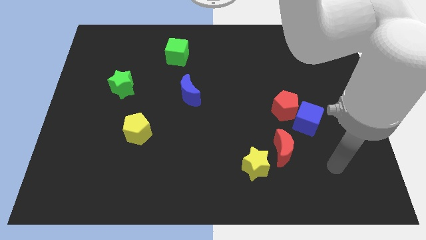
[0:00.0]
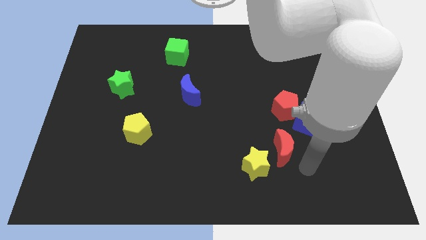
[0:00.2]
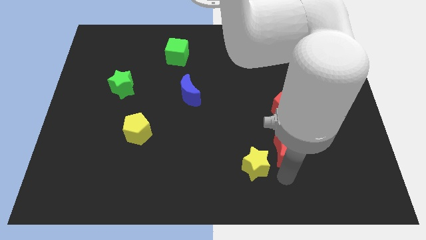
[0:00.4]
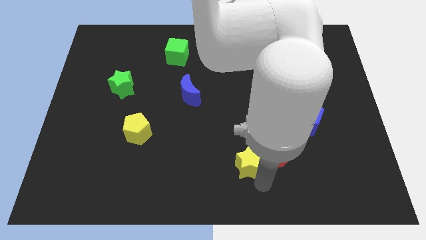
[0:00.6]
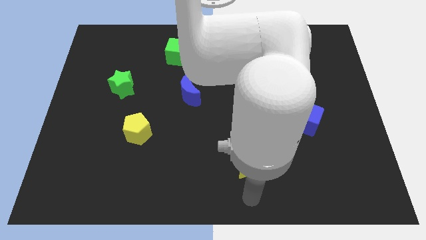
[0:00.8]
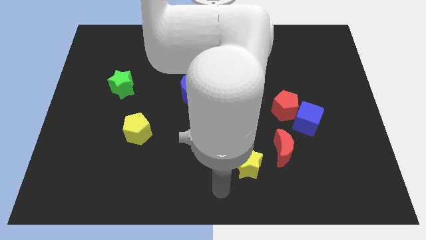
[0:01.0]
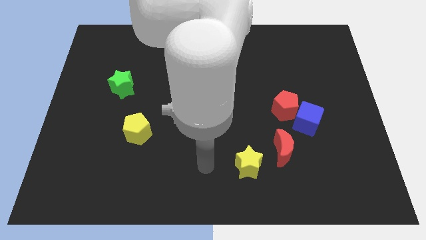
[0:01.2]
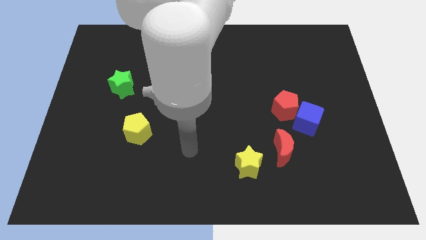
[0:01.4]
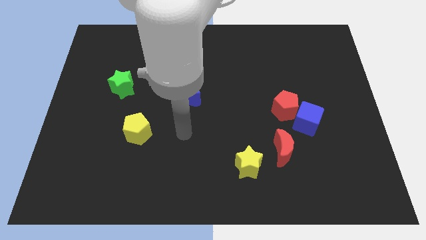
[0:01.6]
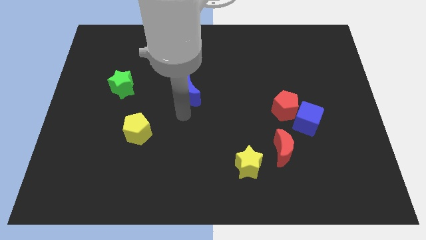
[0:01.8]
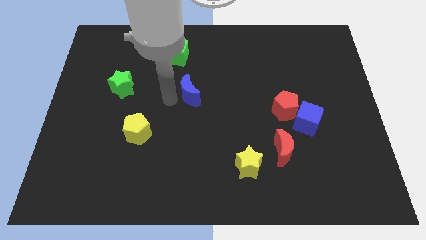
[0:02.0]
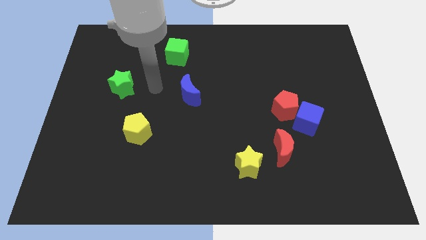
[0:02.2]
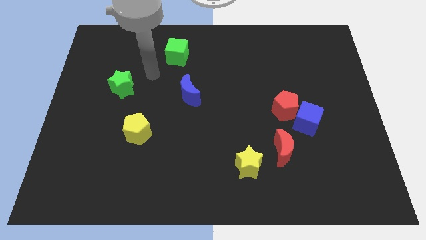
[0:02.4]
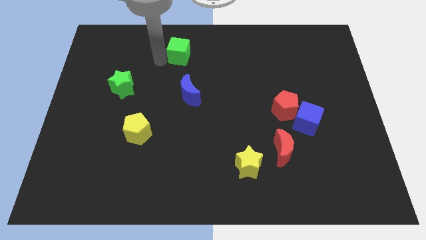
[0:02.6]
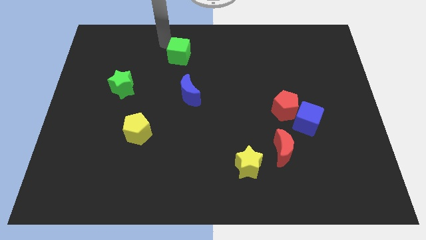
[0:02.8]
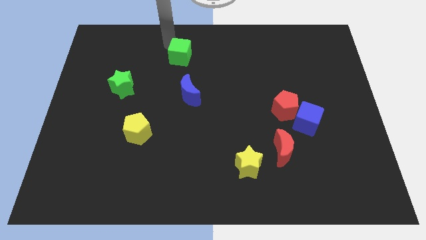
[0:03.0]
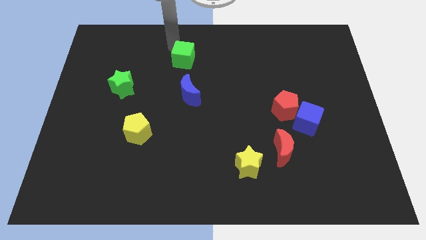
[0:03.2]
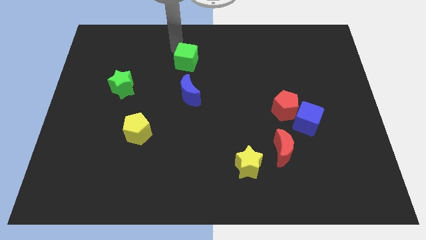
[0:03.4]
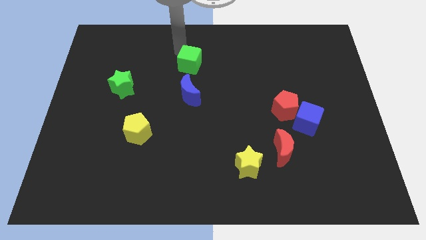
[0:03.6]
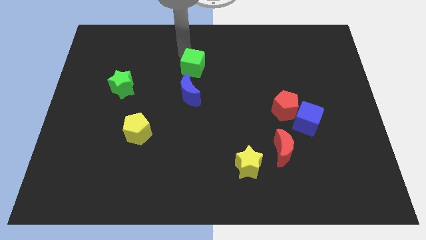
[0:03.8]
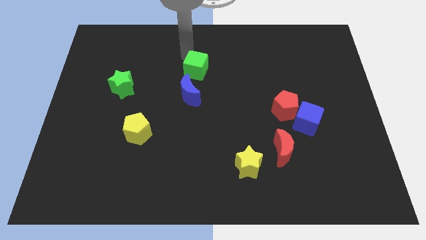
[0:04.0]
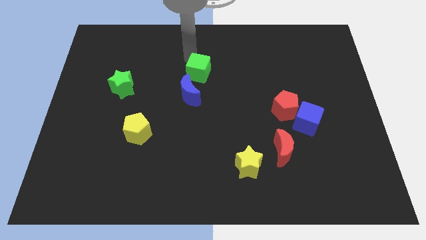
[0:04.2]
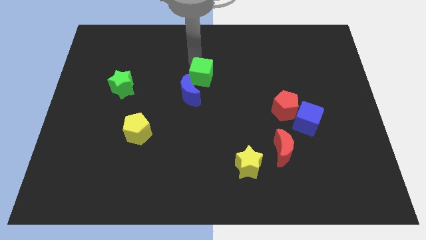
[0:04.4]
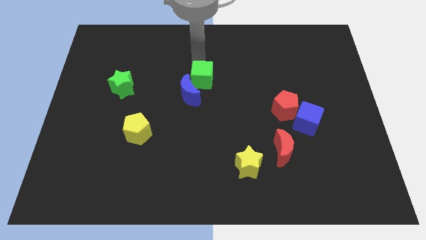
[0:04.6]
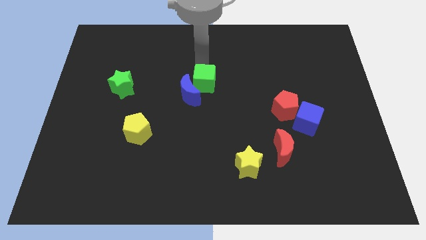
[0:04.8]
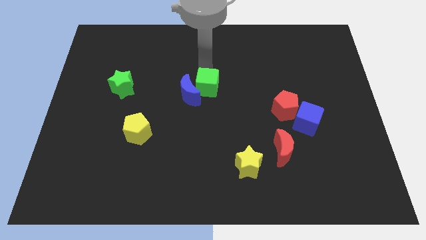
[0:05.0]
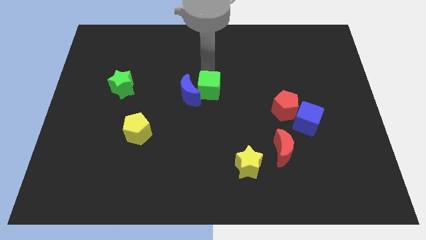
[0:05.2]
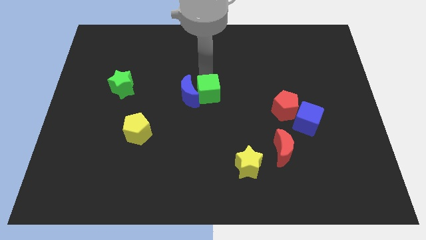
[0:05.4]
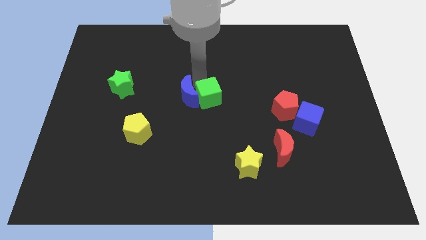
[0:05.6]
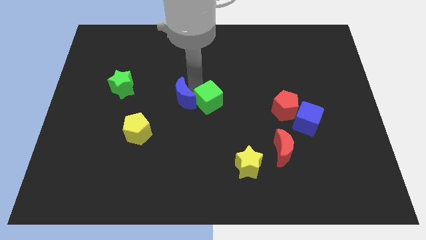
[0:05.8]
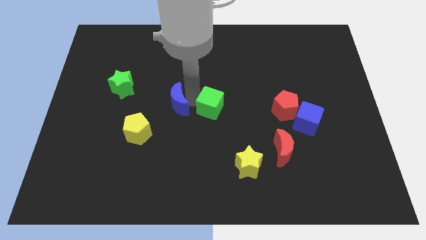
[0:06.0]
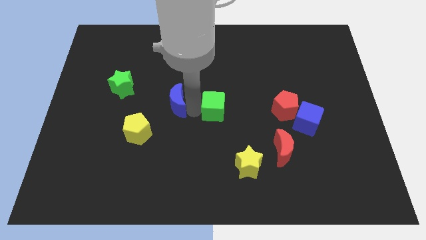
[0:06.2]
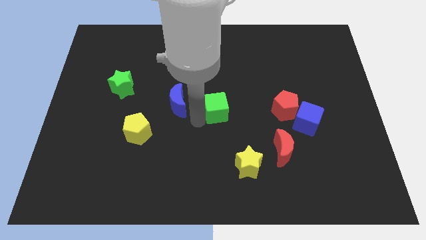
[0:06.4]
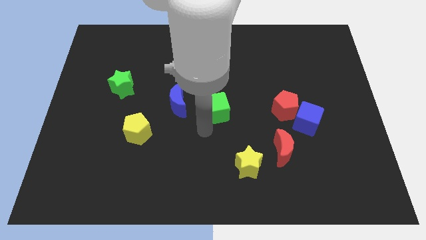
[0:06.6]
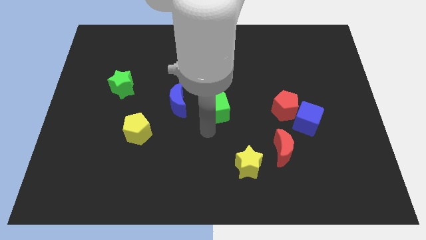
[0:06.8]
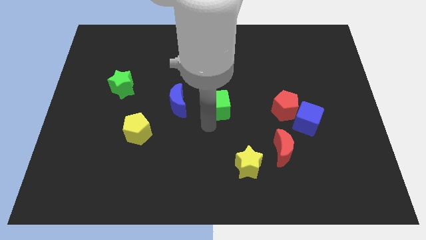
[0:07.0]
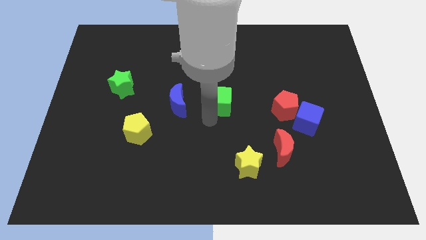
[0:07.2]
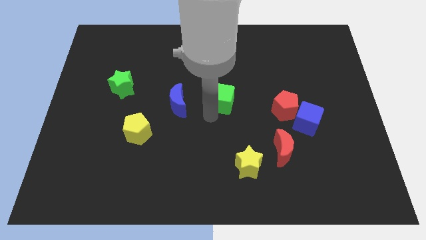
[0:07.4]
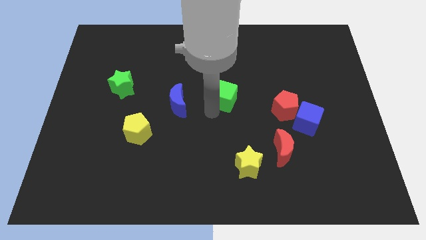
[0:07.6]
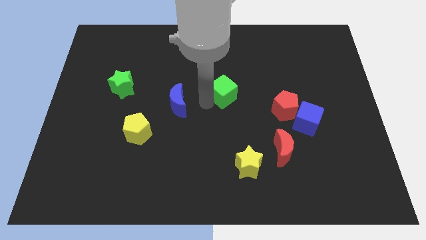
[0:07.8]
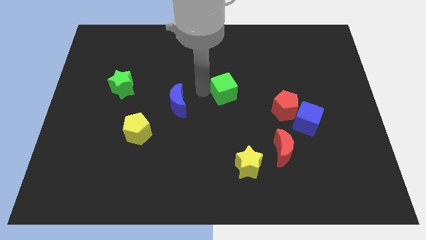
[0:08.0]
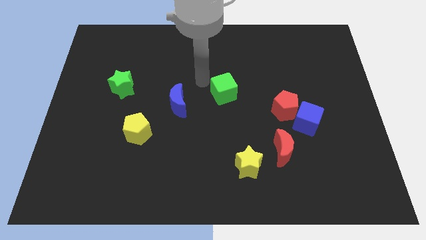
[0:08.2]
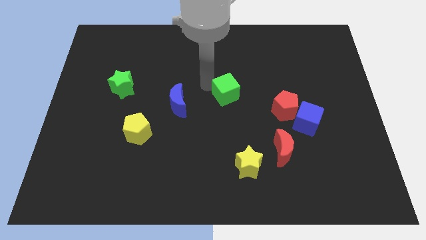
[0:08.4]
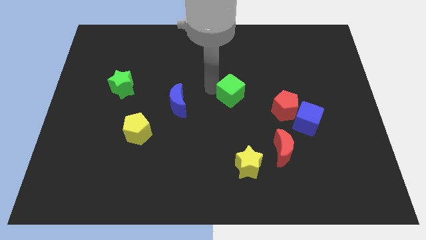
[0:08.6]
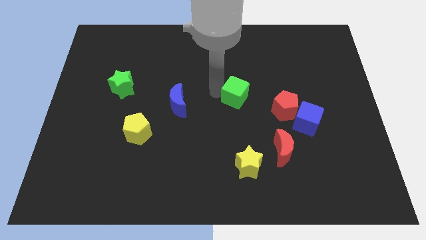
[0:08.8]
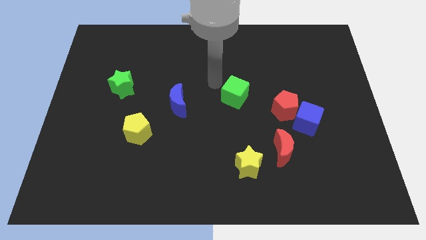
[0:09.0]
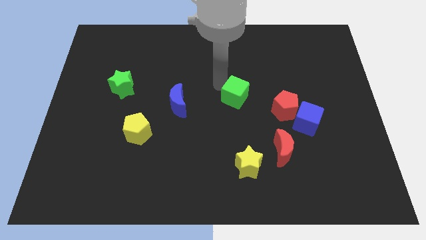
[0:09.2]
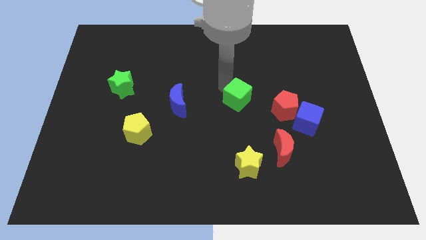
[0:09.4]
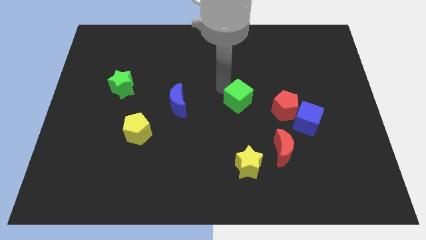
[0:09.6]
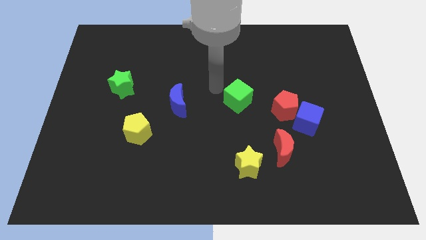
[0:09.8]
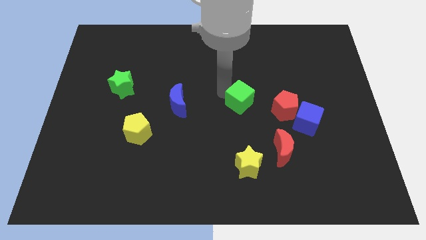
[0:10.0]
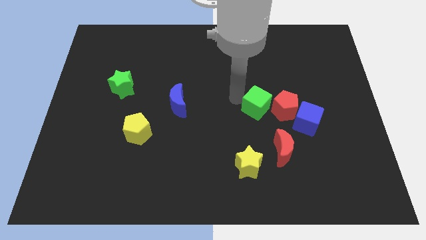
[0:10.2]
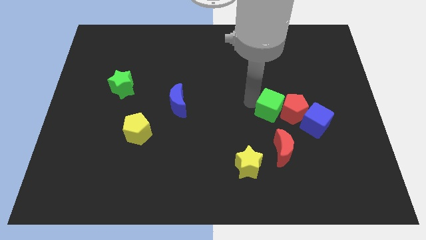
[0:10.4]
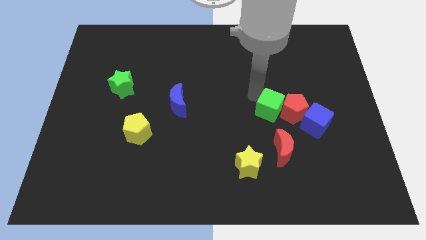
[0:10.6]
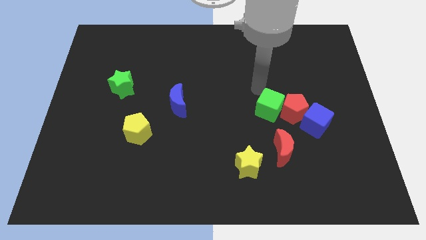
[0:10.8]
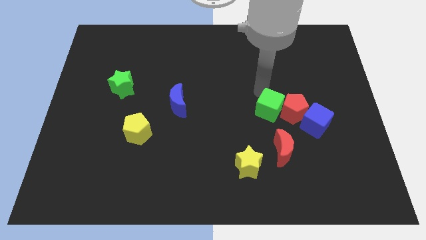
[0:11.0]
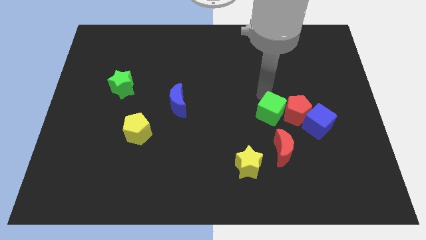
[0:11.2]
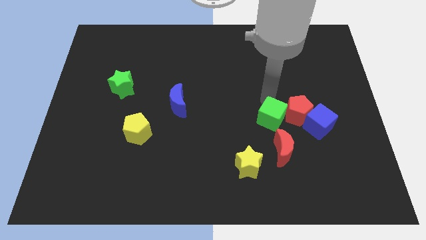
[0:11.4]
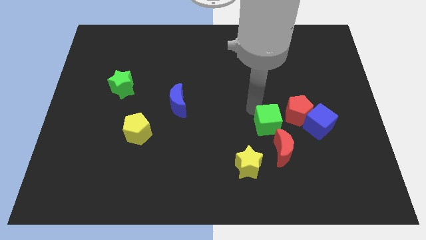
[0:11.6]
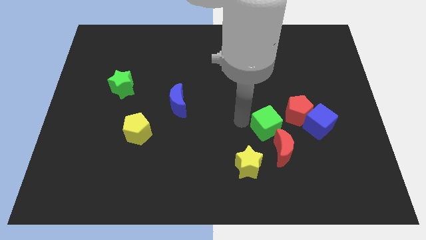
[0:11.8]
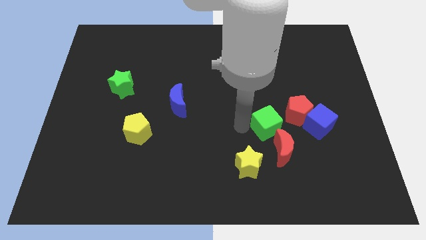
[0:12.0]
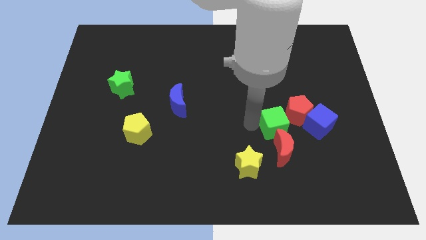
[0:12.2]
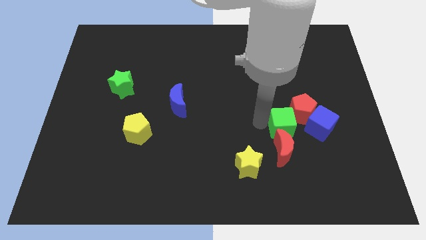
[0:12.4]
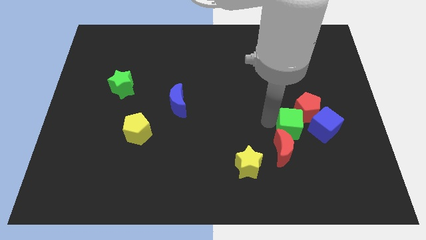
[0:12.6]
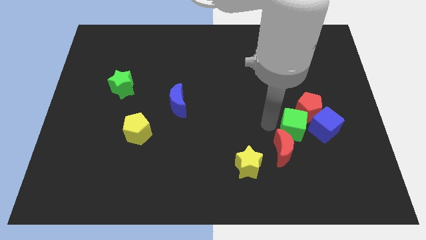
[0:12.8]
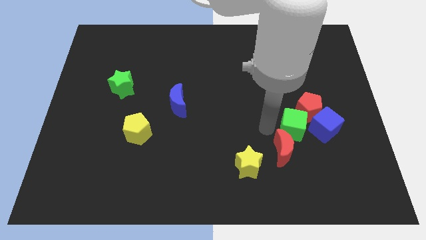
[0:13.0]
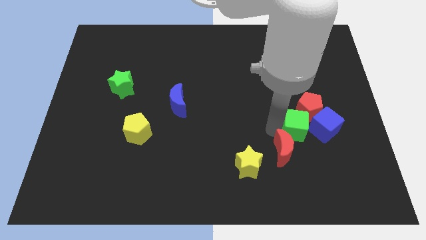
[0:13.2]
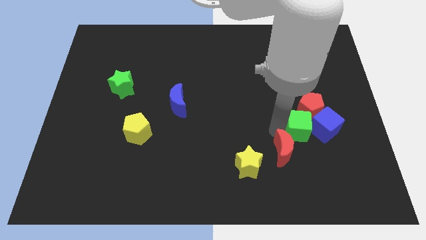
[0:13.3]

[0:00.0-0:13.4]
slide the green cube to the blue cube

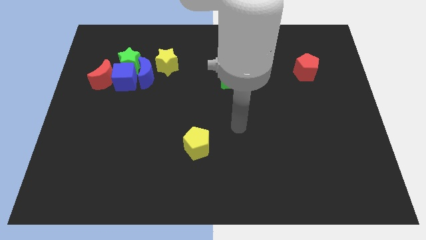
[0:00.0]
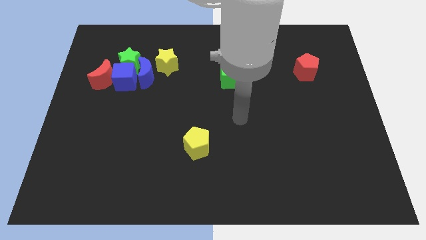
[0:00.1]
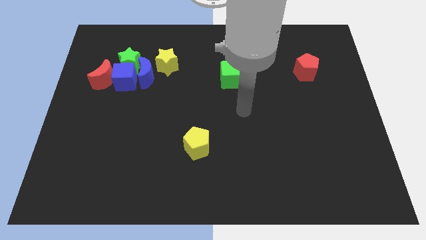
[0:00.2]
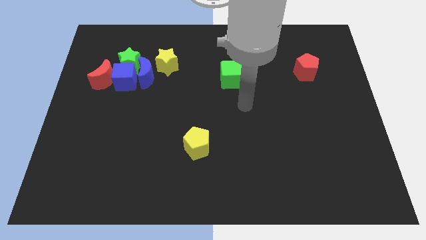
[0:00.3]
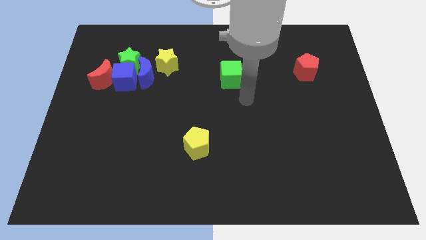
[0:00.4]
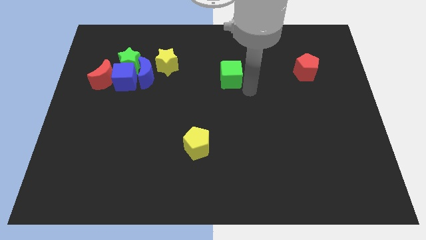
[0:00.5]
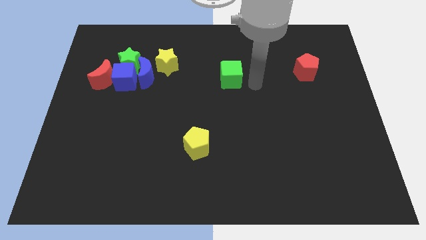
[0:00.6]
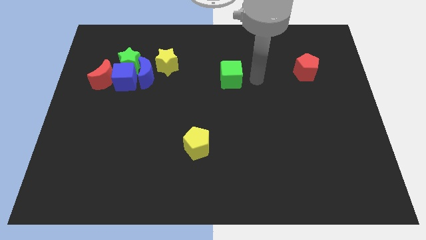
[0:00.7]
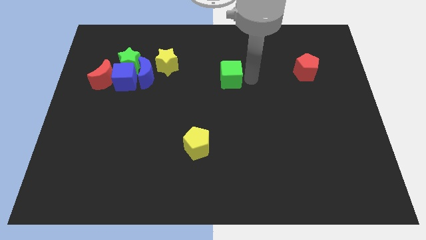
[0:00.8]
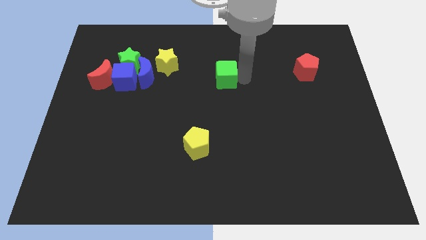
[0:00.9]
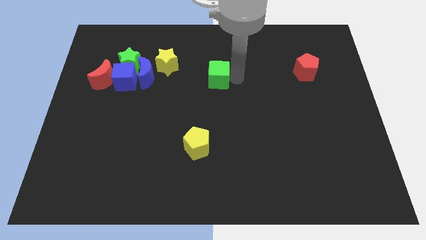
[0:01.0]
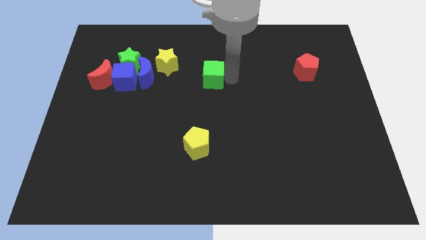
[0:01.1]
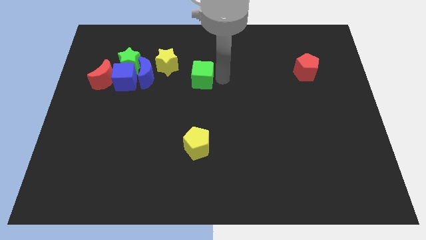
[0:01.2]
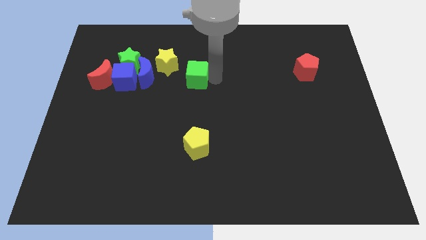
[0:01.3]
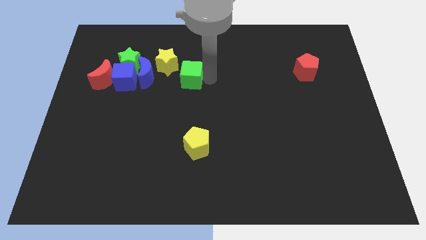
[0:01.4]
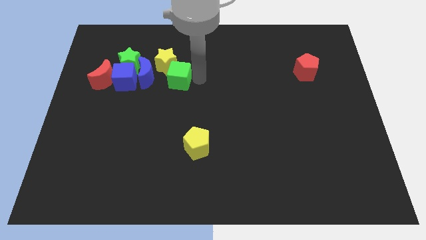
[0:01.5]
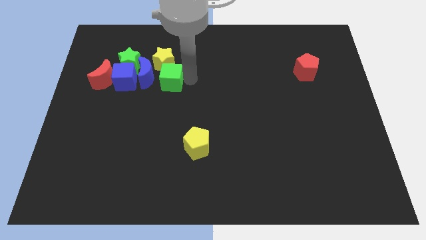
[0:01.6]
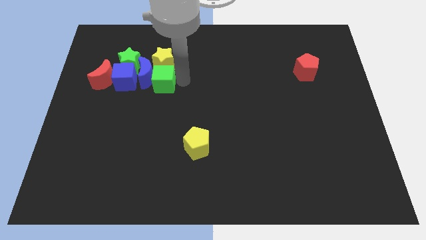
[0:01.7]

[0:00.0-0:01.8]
push the green cube next to the blue moon
